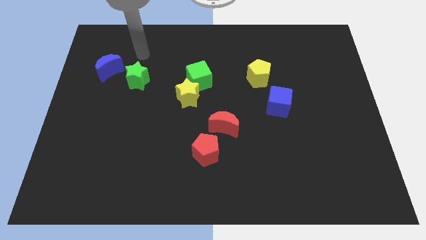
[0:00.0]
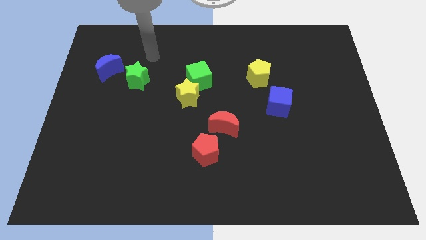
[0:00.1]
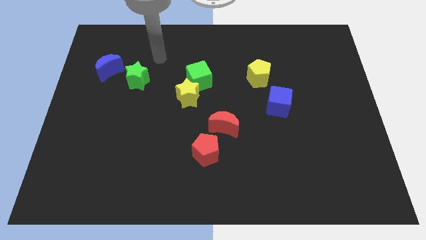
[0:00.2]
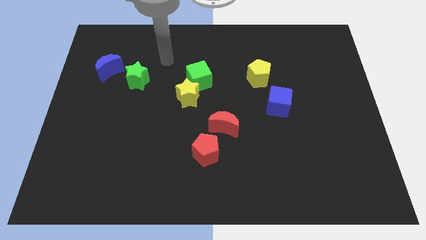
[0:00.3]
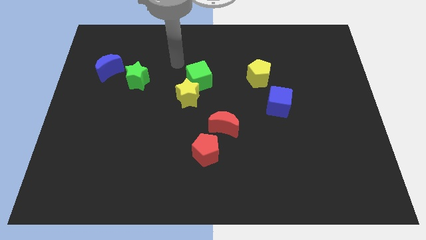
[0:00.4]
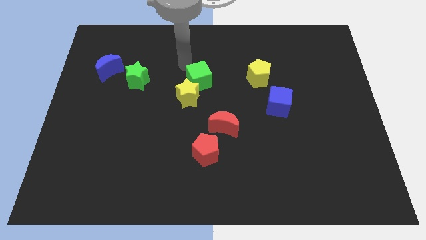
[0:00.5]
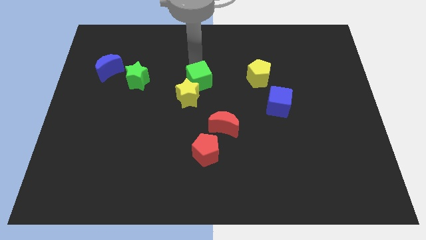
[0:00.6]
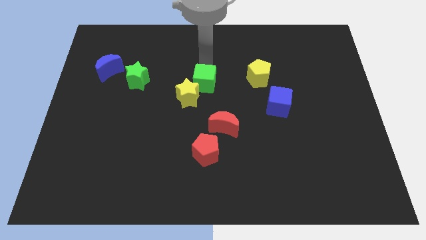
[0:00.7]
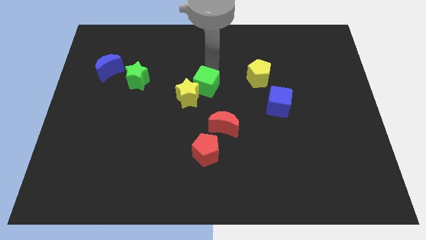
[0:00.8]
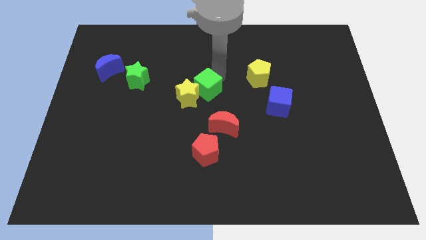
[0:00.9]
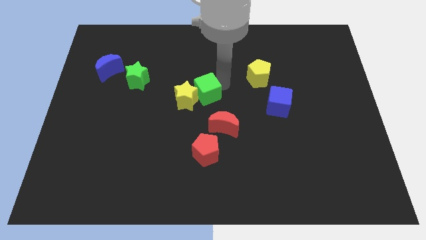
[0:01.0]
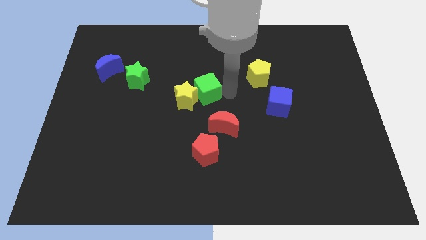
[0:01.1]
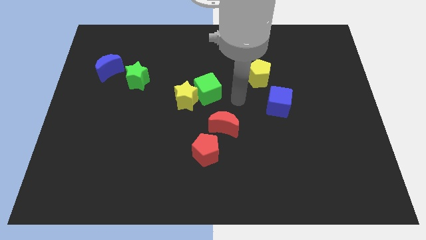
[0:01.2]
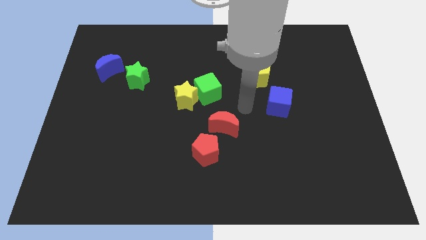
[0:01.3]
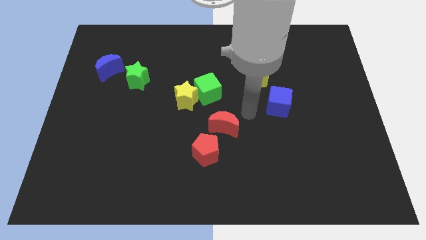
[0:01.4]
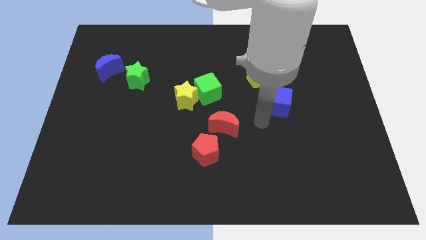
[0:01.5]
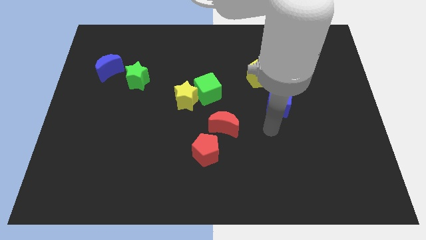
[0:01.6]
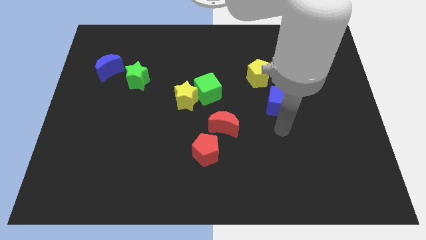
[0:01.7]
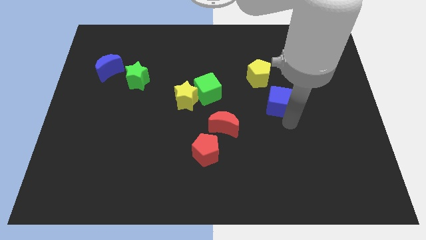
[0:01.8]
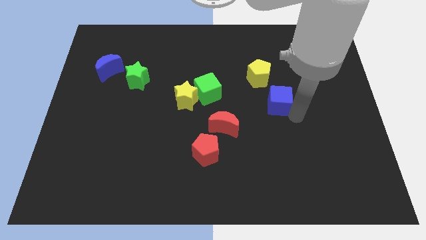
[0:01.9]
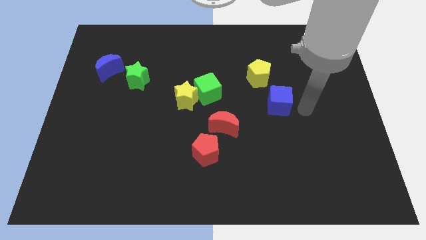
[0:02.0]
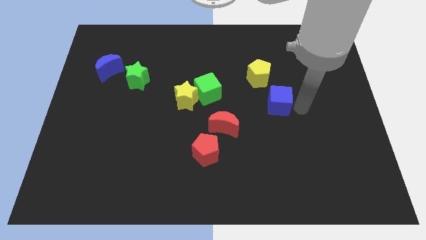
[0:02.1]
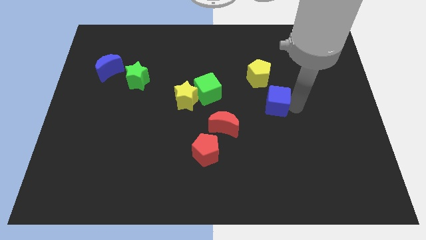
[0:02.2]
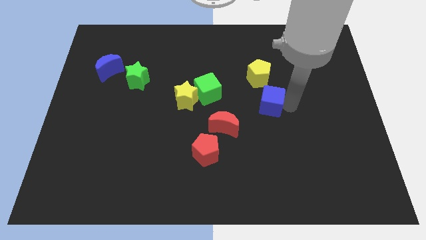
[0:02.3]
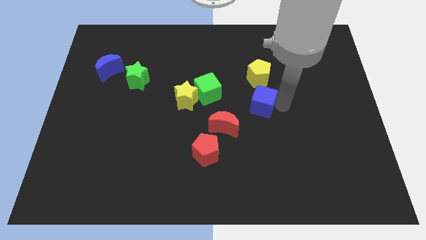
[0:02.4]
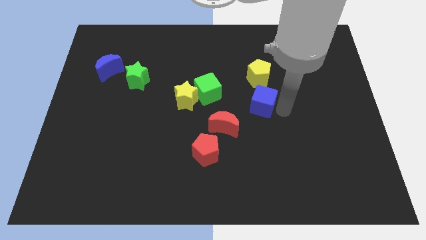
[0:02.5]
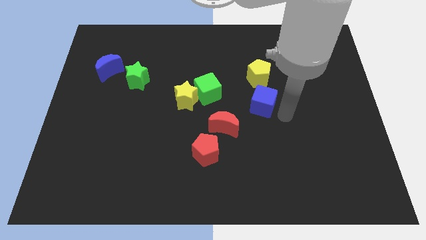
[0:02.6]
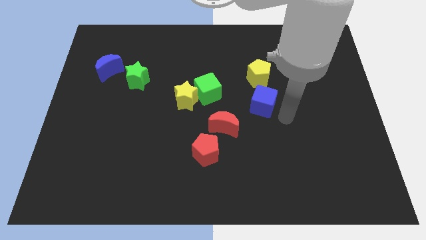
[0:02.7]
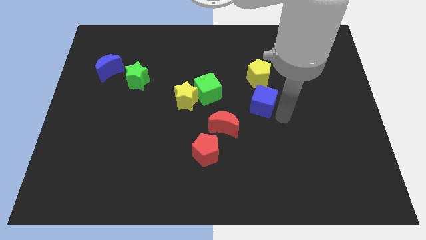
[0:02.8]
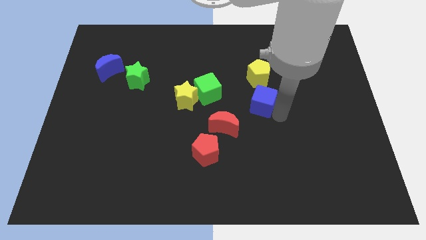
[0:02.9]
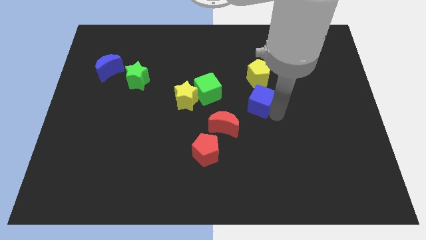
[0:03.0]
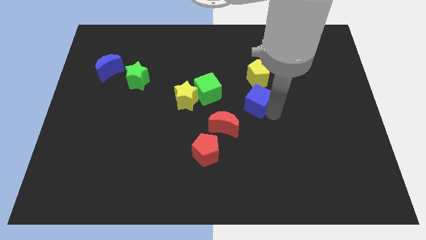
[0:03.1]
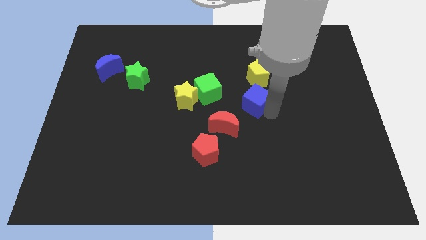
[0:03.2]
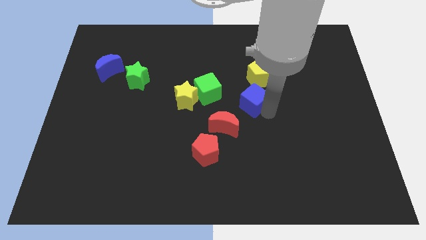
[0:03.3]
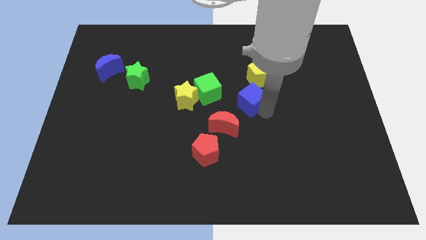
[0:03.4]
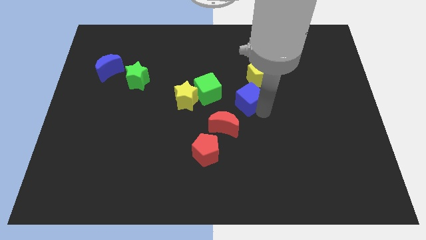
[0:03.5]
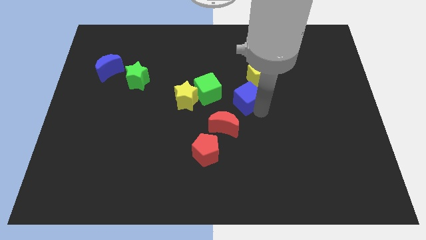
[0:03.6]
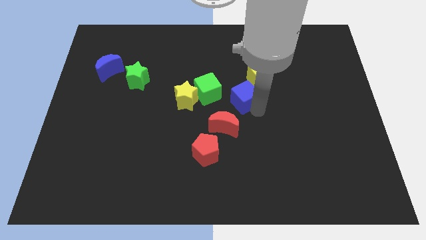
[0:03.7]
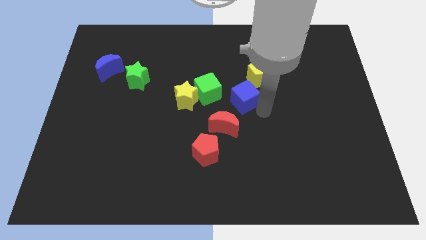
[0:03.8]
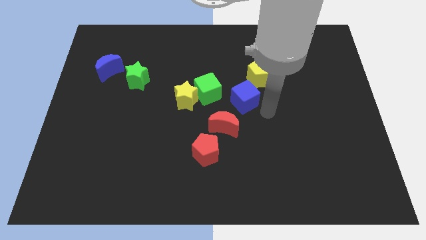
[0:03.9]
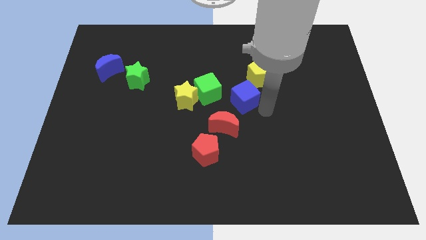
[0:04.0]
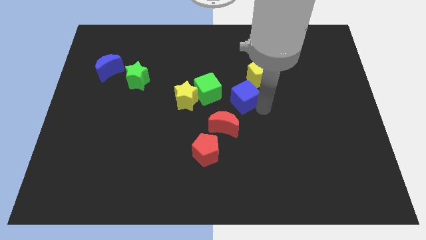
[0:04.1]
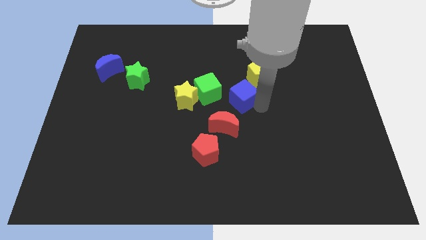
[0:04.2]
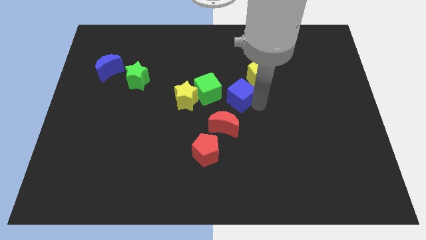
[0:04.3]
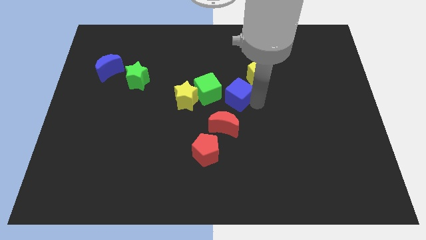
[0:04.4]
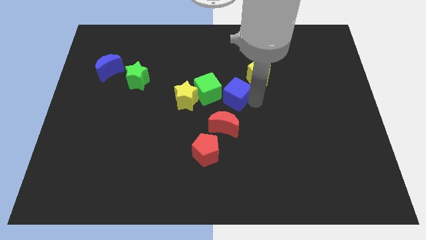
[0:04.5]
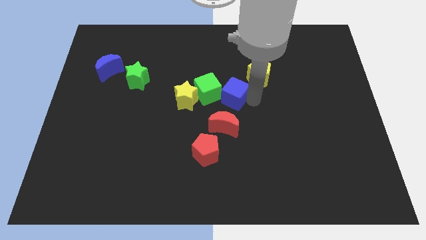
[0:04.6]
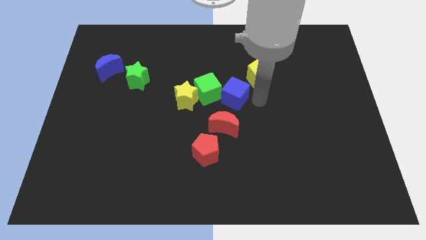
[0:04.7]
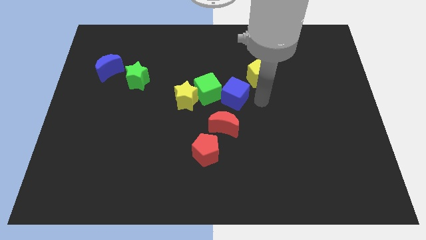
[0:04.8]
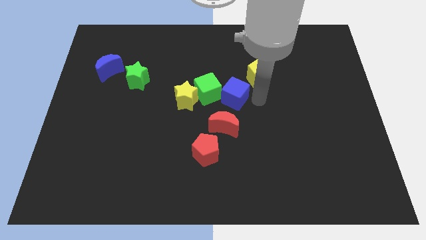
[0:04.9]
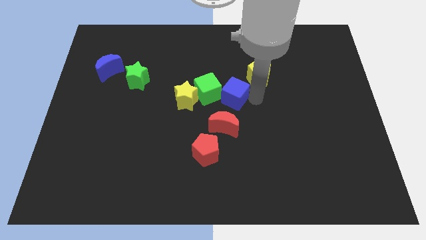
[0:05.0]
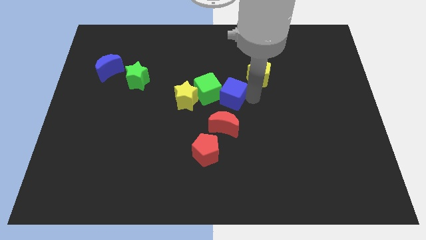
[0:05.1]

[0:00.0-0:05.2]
slide the blue cube close to the green cube

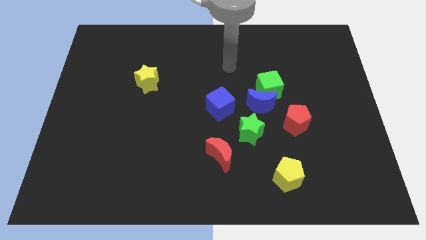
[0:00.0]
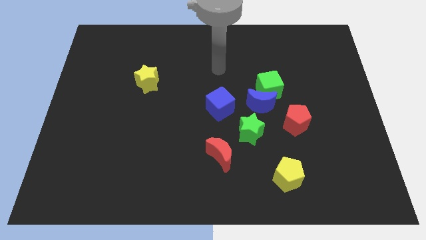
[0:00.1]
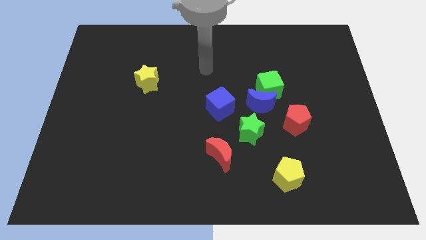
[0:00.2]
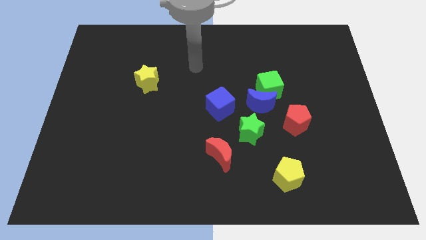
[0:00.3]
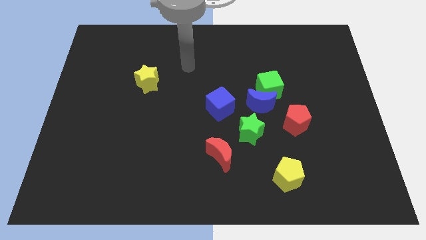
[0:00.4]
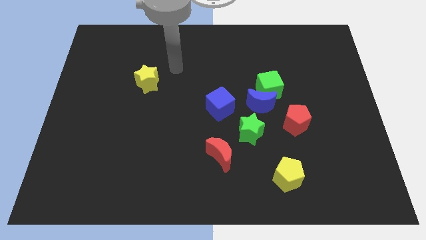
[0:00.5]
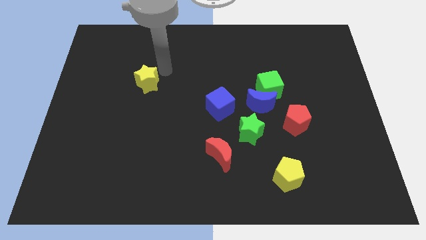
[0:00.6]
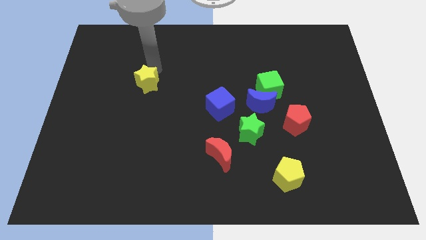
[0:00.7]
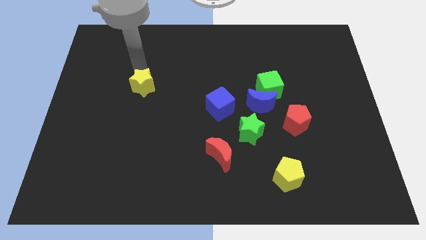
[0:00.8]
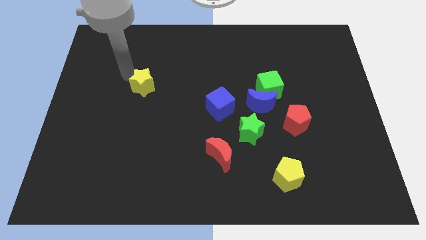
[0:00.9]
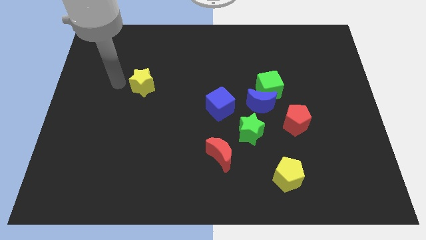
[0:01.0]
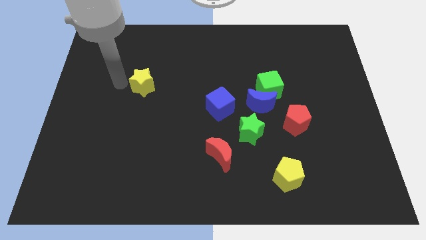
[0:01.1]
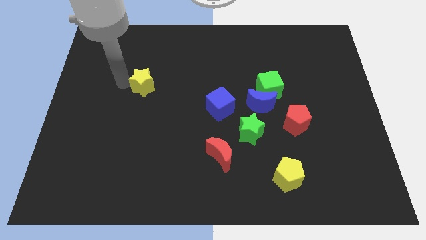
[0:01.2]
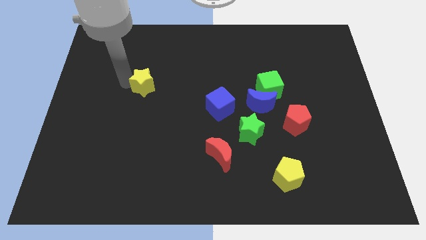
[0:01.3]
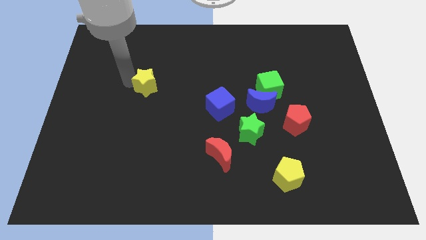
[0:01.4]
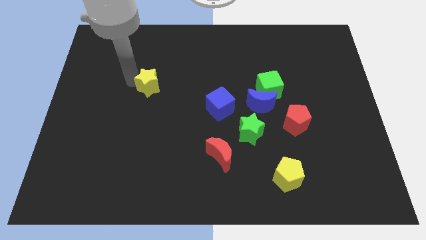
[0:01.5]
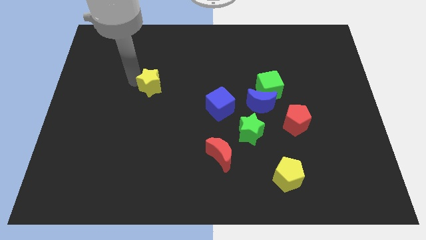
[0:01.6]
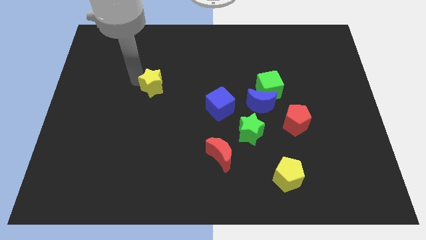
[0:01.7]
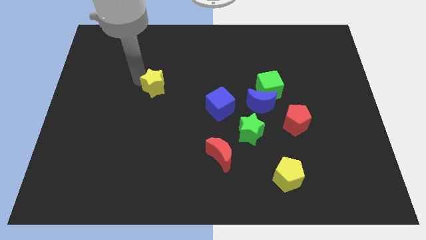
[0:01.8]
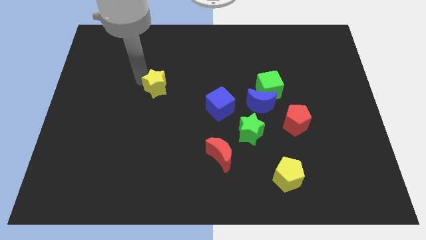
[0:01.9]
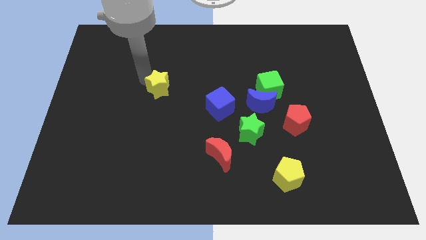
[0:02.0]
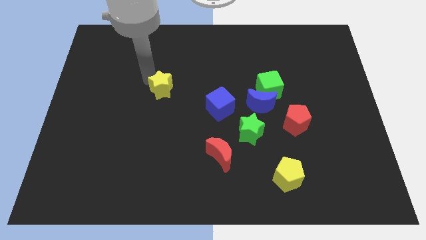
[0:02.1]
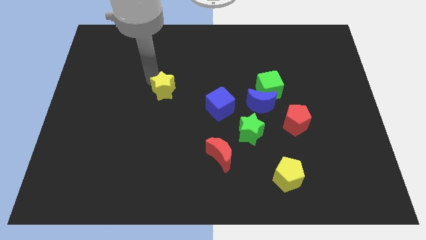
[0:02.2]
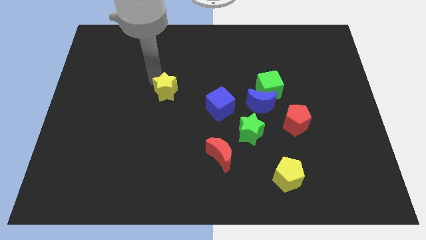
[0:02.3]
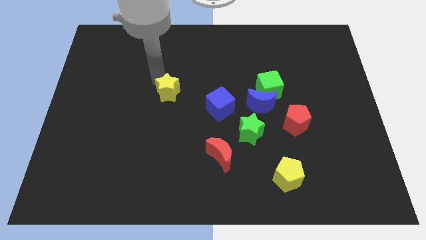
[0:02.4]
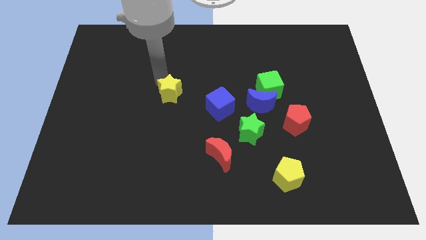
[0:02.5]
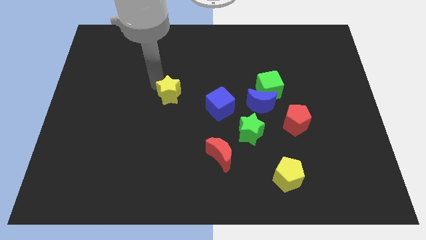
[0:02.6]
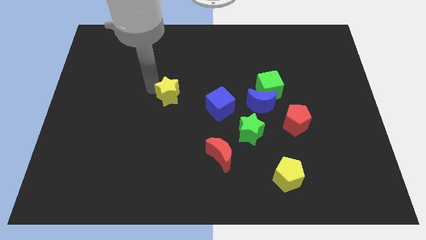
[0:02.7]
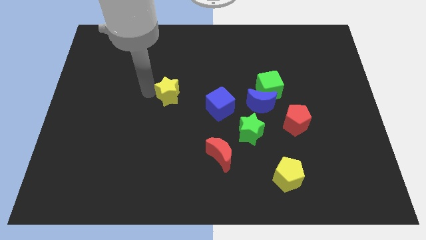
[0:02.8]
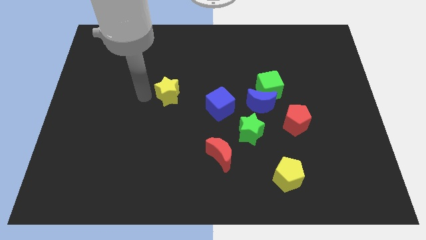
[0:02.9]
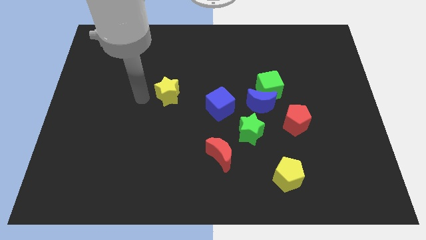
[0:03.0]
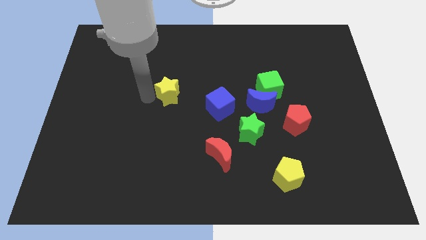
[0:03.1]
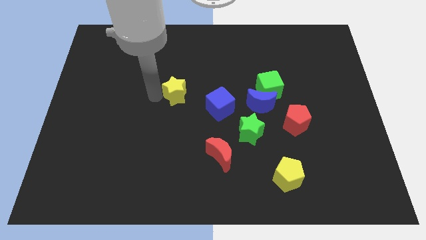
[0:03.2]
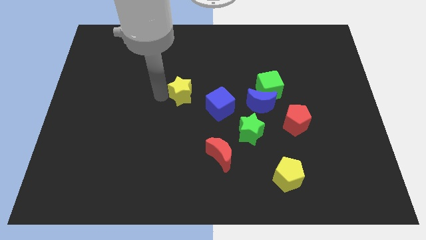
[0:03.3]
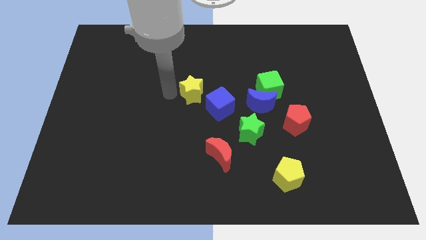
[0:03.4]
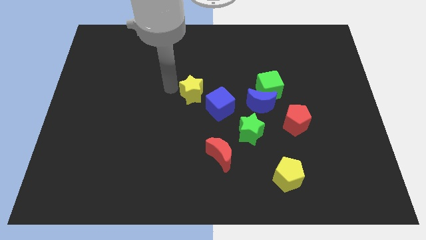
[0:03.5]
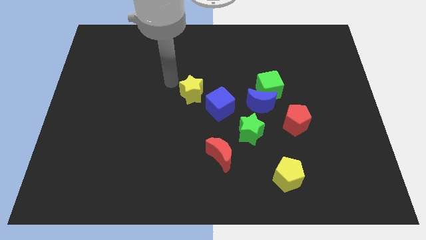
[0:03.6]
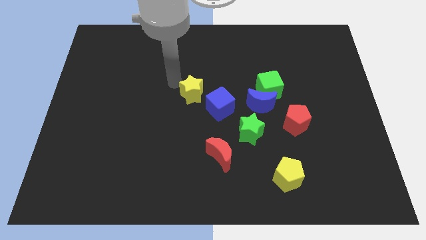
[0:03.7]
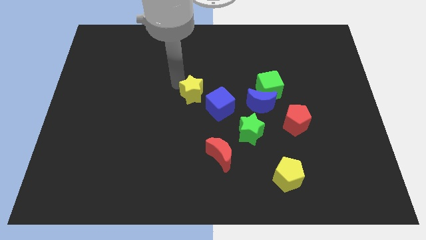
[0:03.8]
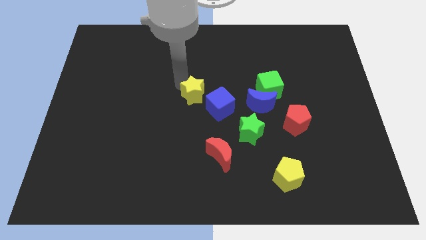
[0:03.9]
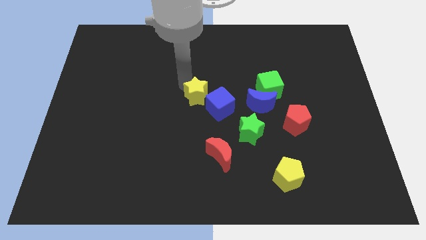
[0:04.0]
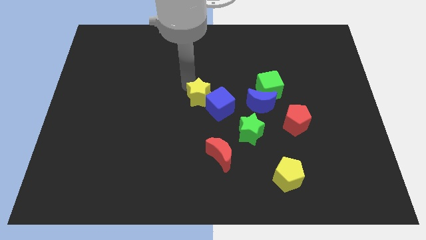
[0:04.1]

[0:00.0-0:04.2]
push the yellow star to the blue cube
